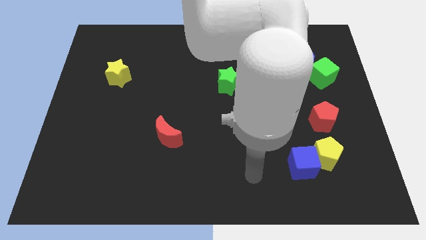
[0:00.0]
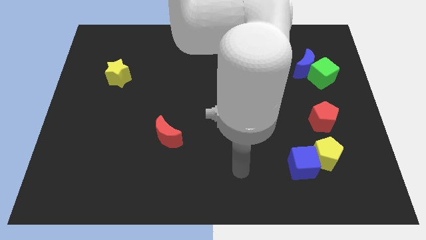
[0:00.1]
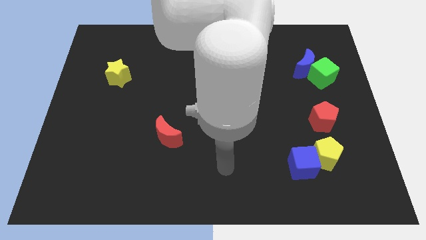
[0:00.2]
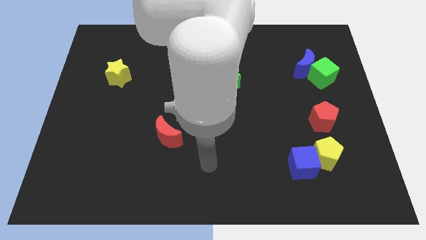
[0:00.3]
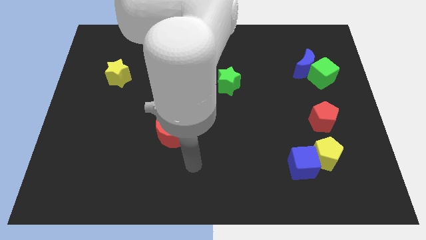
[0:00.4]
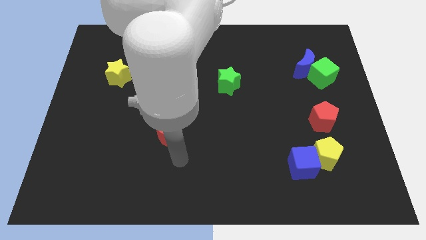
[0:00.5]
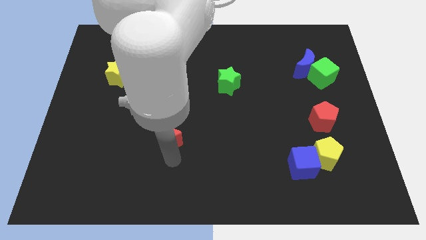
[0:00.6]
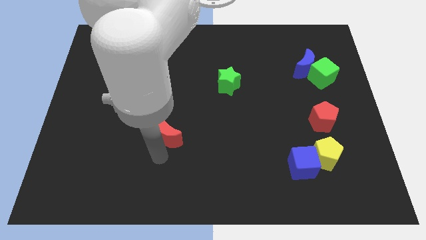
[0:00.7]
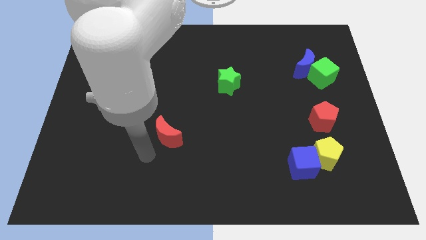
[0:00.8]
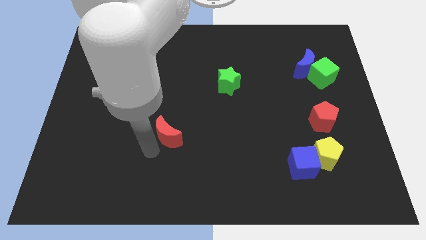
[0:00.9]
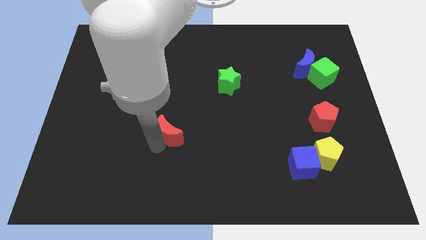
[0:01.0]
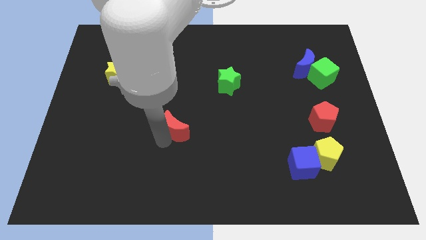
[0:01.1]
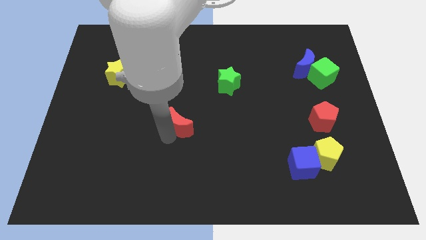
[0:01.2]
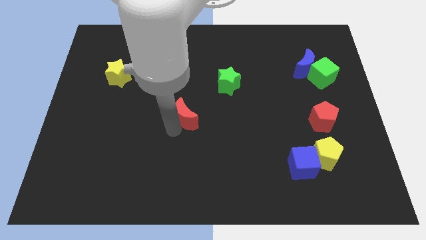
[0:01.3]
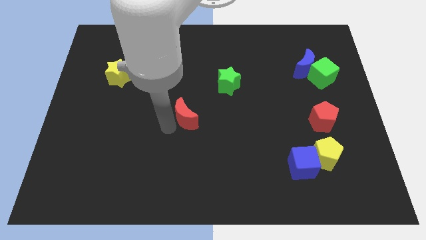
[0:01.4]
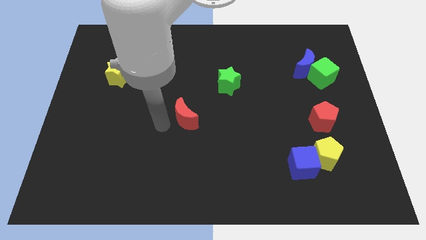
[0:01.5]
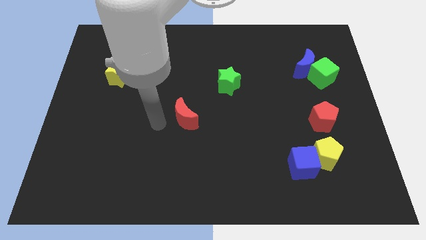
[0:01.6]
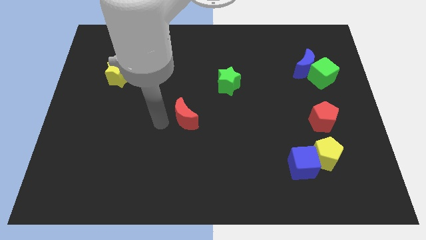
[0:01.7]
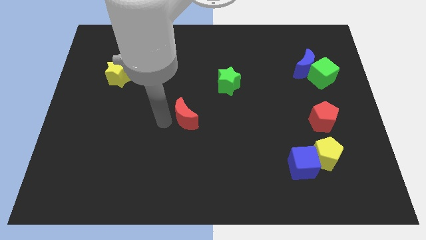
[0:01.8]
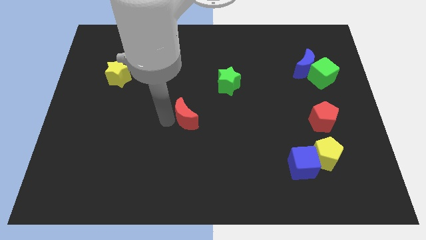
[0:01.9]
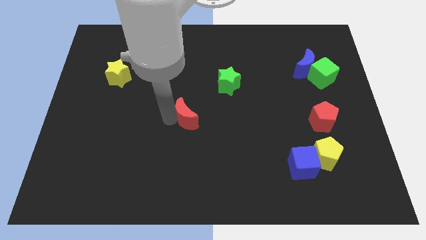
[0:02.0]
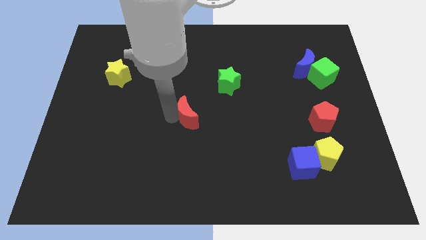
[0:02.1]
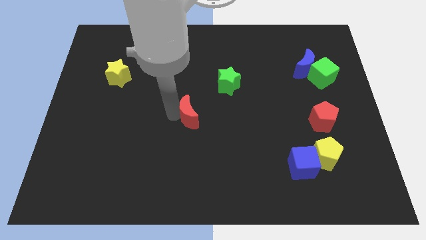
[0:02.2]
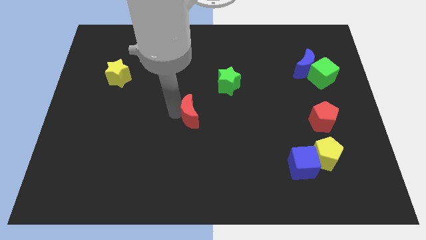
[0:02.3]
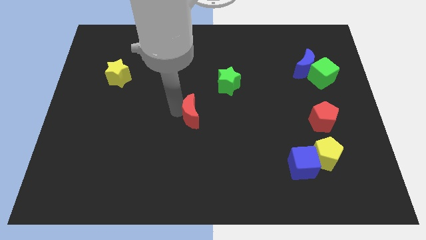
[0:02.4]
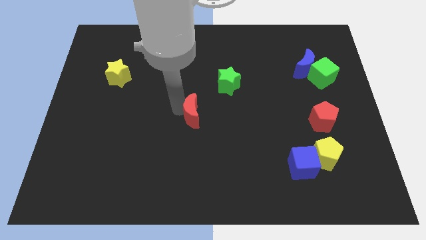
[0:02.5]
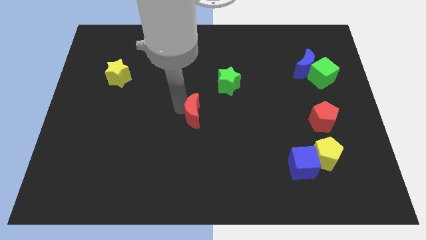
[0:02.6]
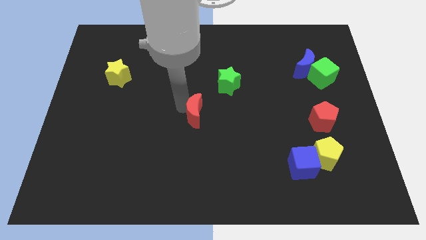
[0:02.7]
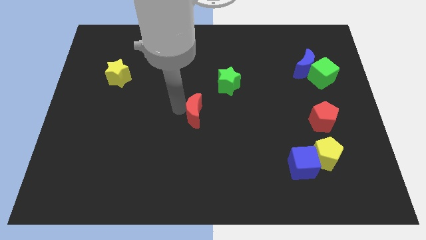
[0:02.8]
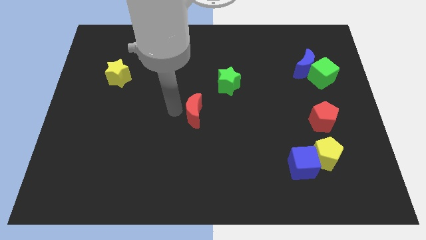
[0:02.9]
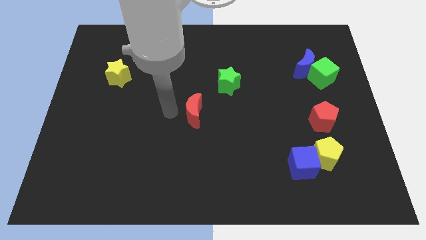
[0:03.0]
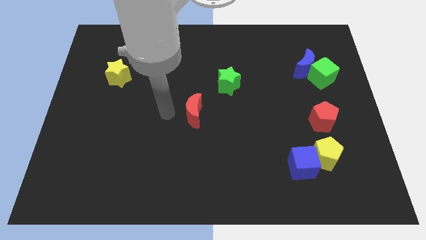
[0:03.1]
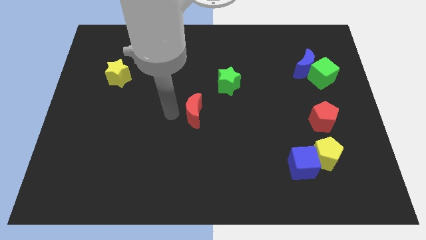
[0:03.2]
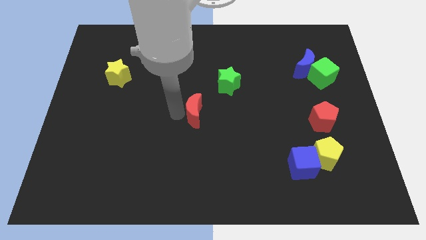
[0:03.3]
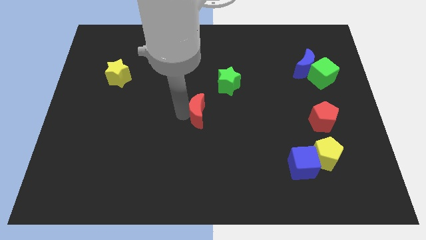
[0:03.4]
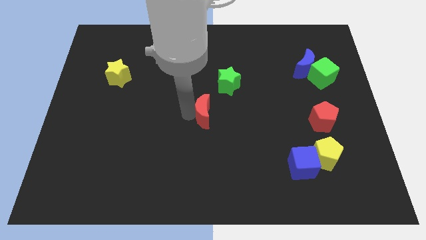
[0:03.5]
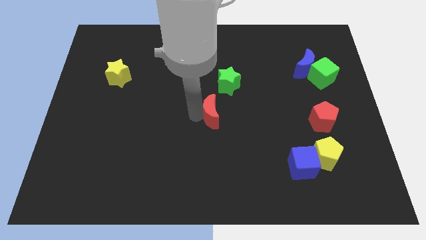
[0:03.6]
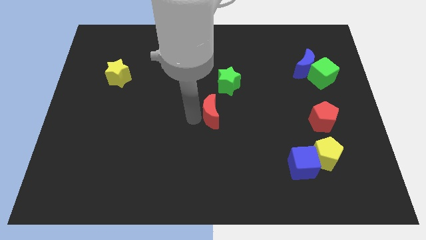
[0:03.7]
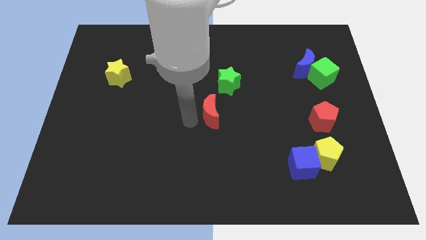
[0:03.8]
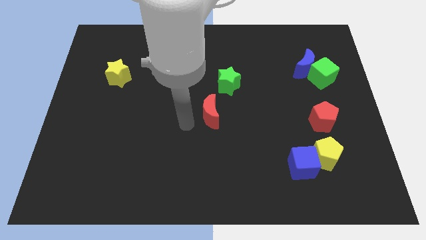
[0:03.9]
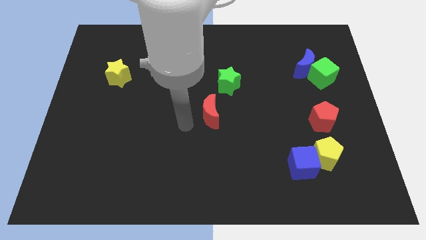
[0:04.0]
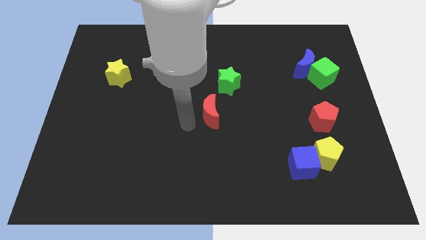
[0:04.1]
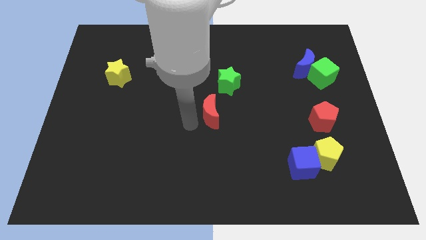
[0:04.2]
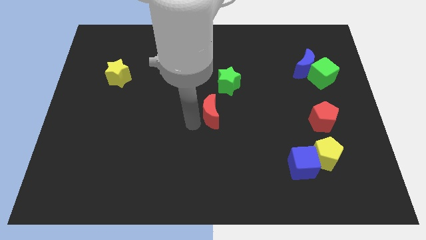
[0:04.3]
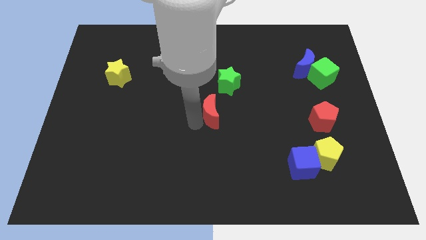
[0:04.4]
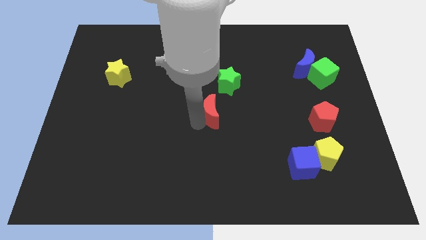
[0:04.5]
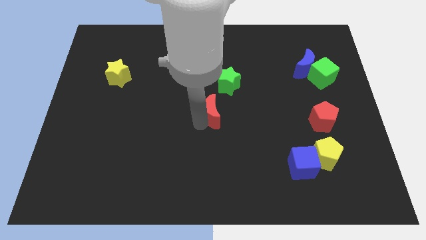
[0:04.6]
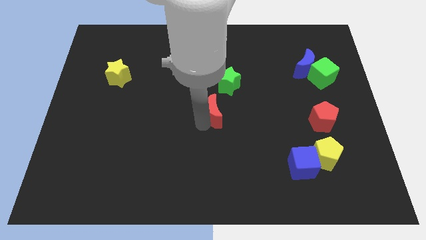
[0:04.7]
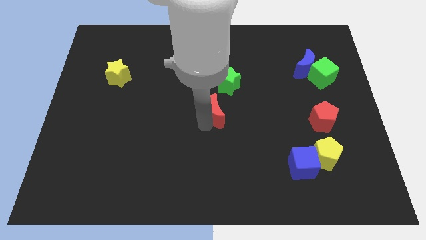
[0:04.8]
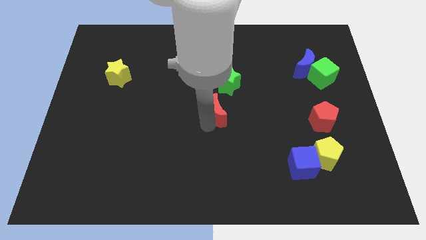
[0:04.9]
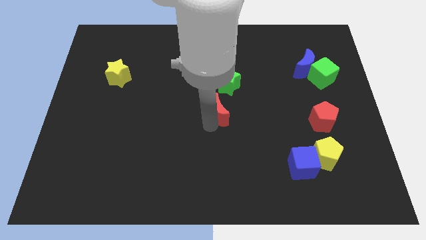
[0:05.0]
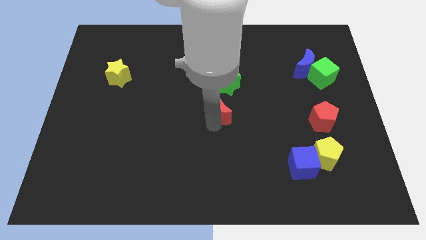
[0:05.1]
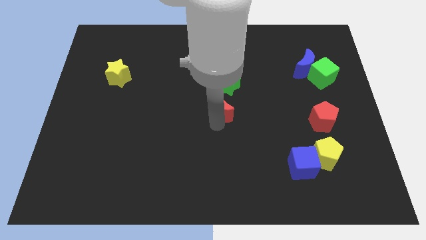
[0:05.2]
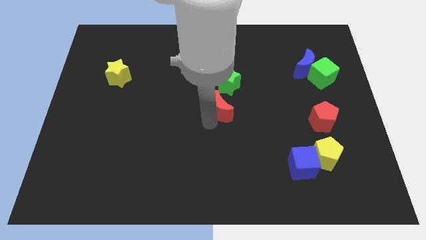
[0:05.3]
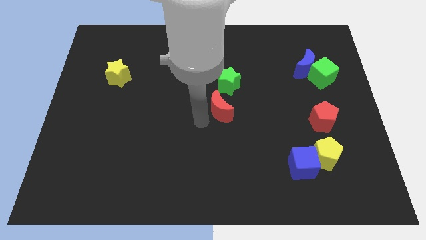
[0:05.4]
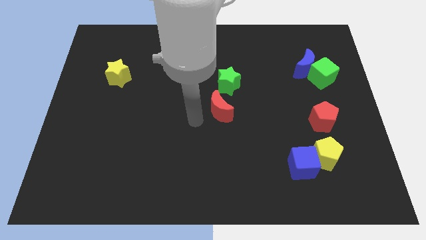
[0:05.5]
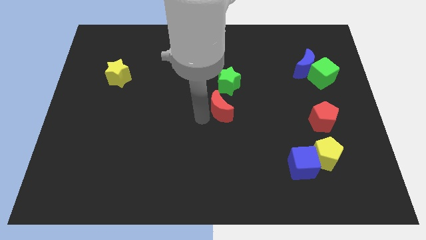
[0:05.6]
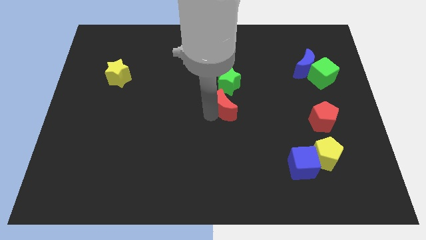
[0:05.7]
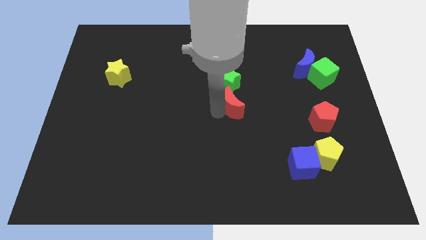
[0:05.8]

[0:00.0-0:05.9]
move the red moon to the bottom right of the green star

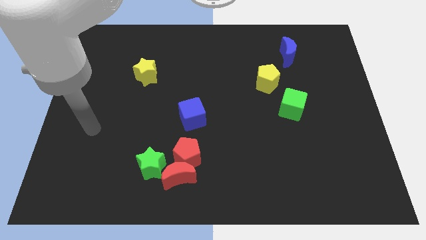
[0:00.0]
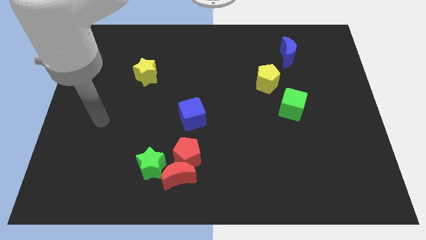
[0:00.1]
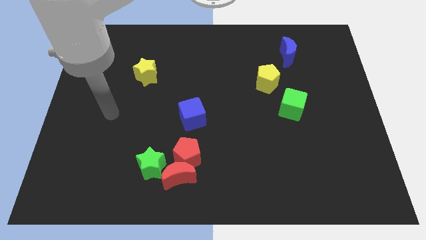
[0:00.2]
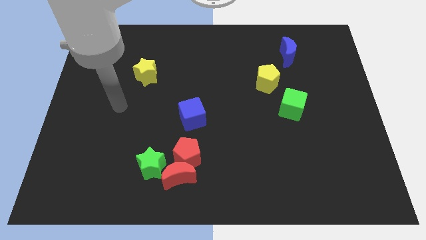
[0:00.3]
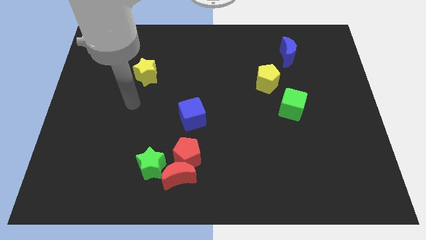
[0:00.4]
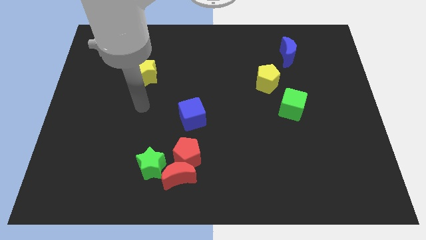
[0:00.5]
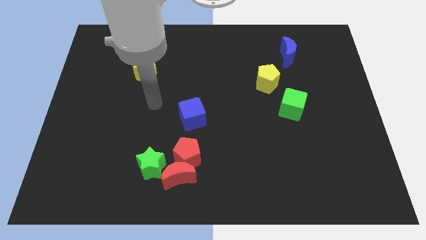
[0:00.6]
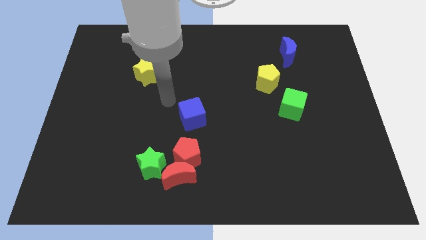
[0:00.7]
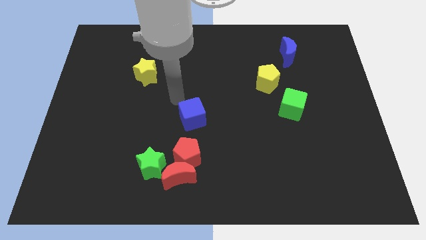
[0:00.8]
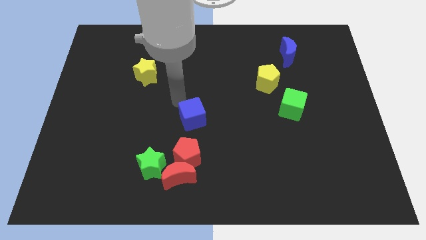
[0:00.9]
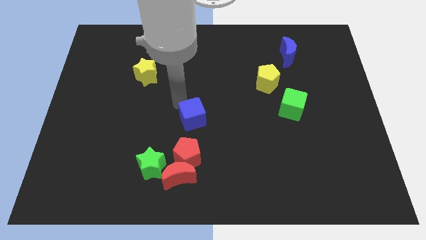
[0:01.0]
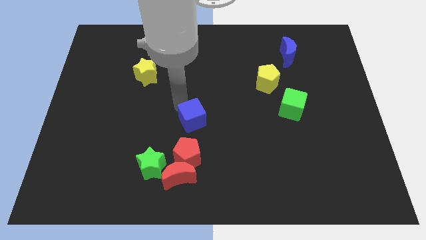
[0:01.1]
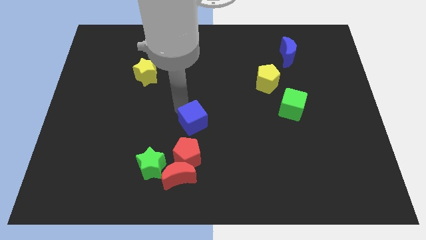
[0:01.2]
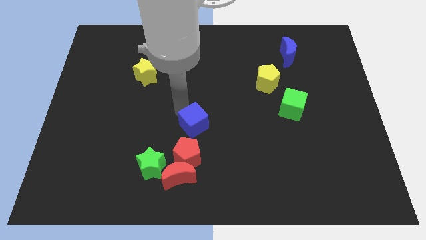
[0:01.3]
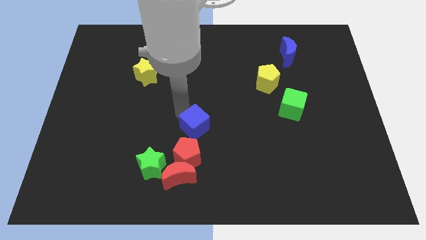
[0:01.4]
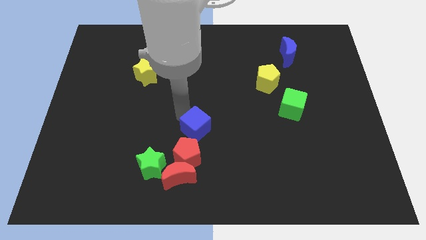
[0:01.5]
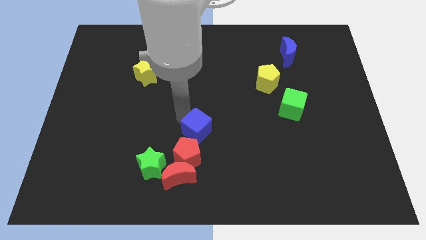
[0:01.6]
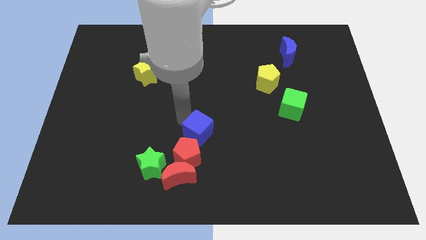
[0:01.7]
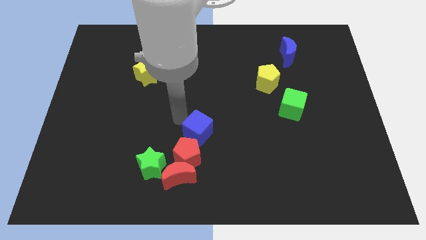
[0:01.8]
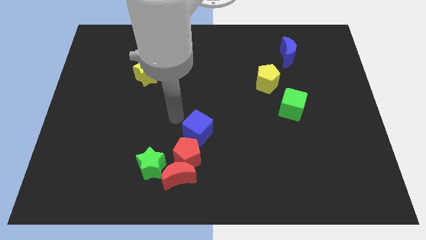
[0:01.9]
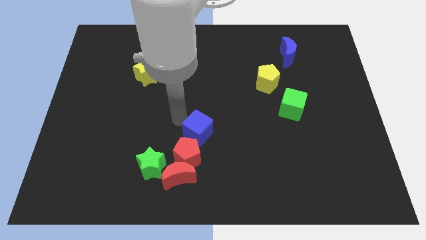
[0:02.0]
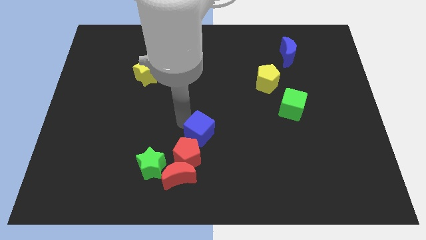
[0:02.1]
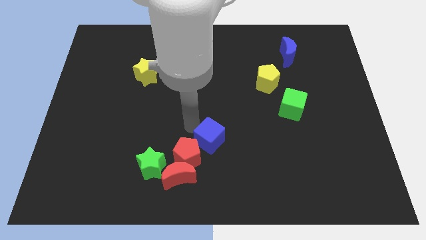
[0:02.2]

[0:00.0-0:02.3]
slide the blue cube just right of the red pentagon
